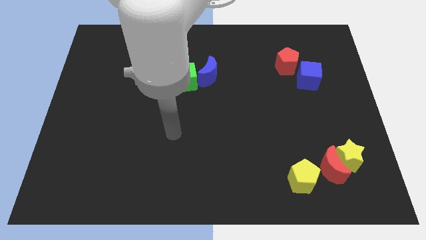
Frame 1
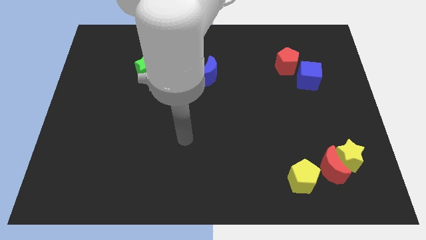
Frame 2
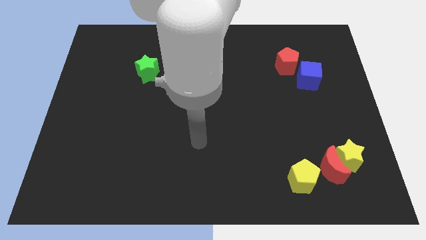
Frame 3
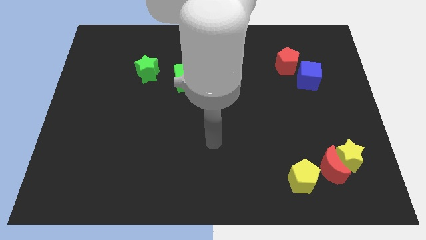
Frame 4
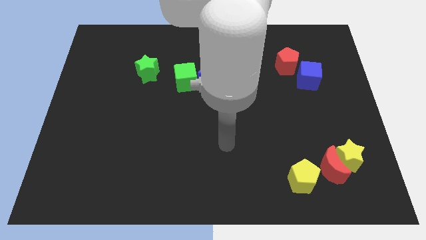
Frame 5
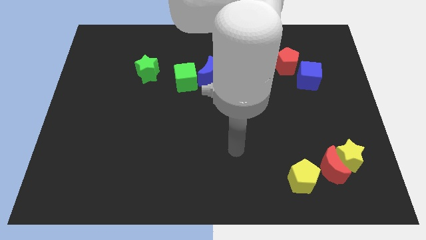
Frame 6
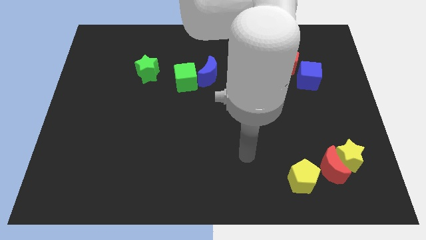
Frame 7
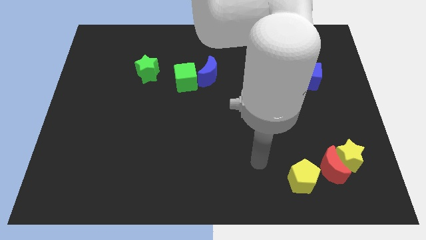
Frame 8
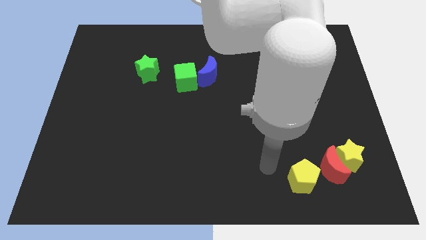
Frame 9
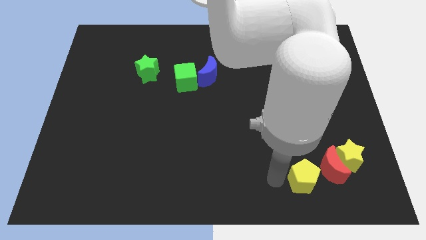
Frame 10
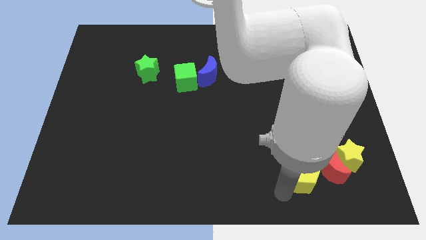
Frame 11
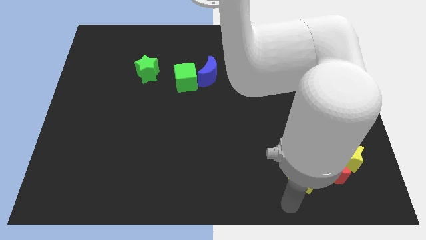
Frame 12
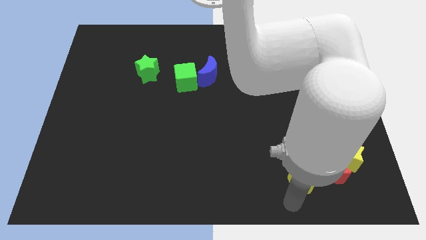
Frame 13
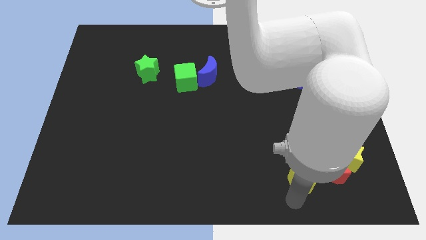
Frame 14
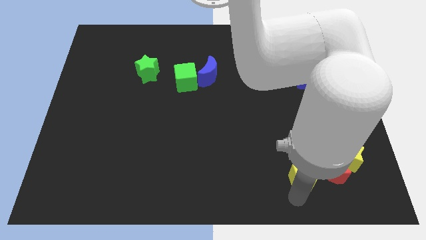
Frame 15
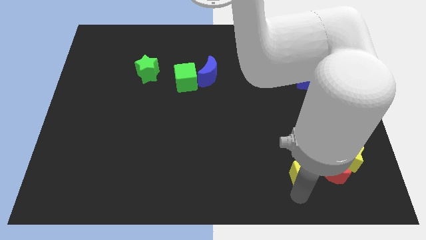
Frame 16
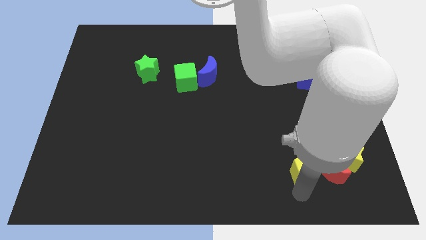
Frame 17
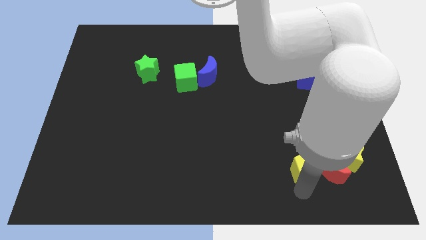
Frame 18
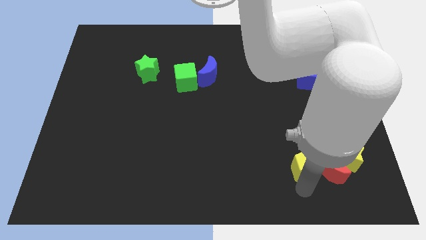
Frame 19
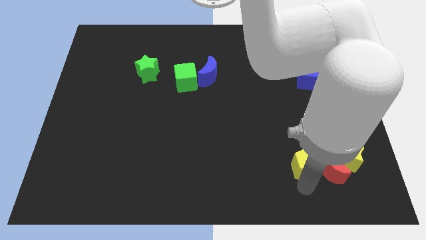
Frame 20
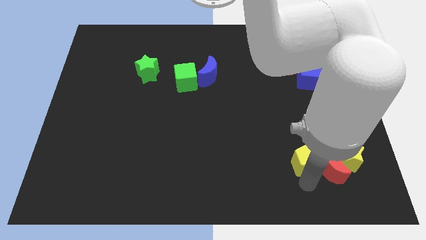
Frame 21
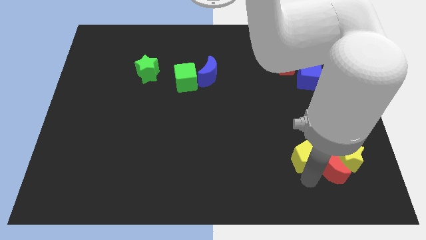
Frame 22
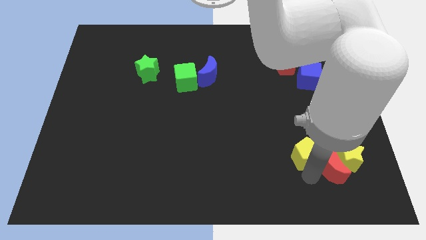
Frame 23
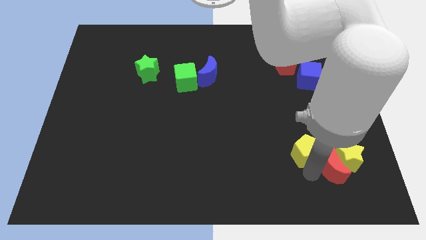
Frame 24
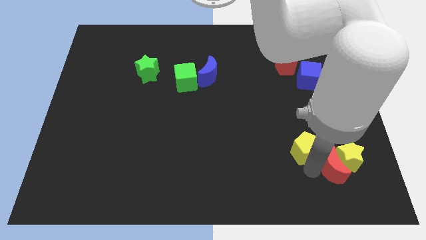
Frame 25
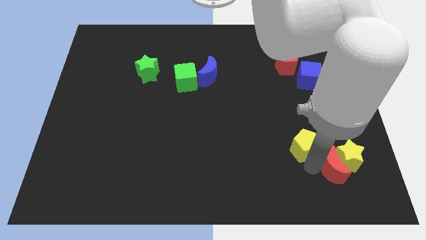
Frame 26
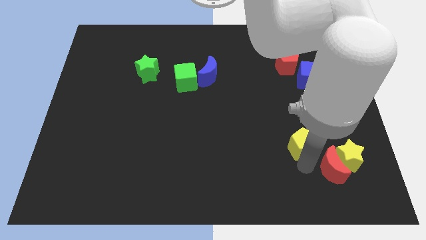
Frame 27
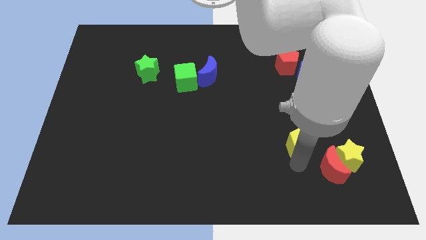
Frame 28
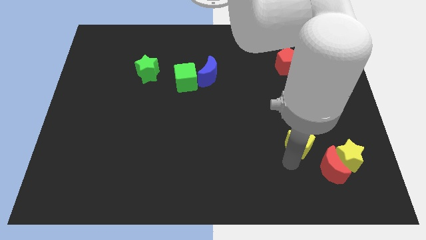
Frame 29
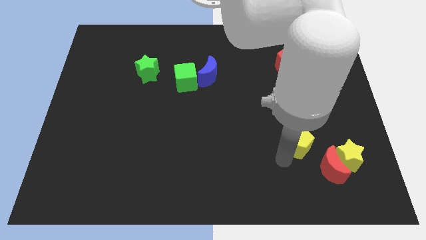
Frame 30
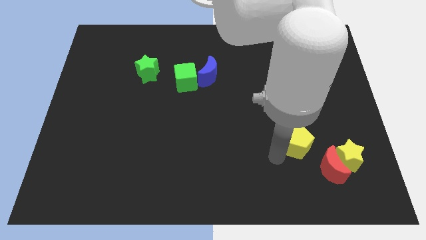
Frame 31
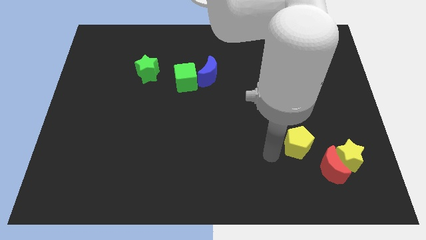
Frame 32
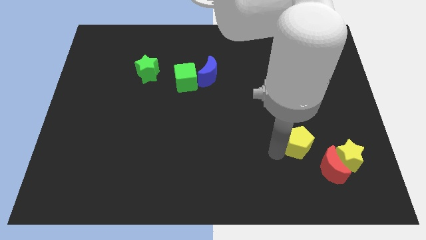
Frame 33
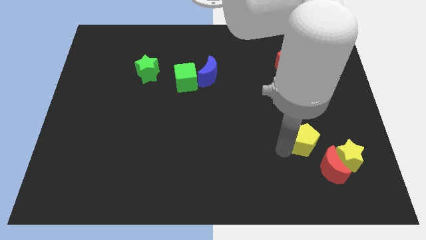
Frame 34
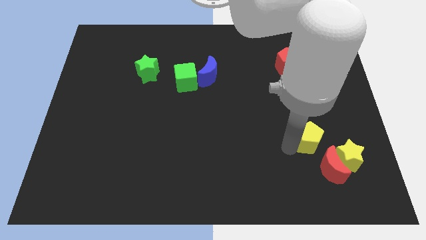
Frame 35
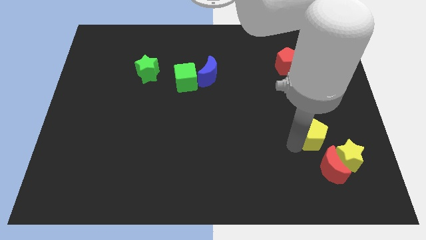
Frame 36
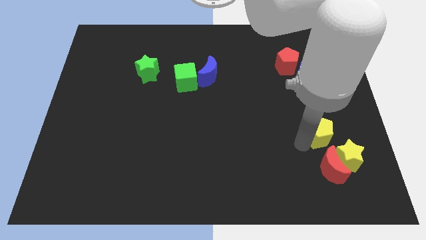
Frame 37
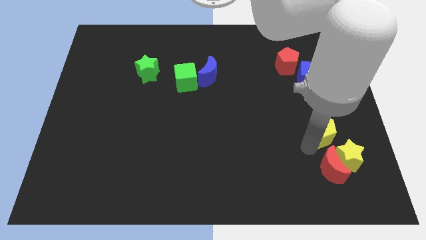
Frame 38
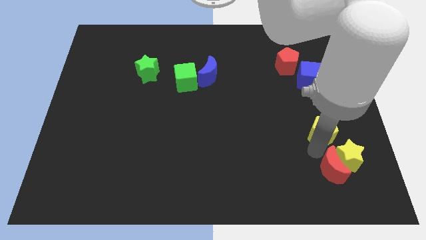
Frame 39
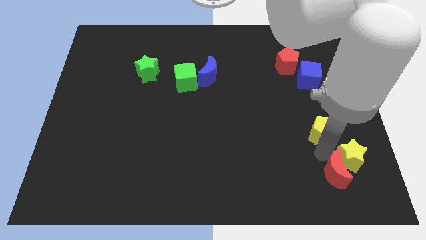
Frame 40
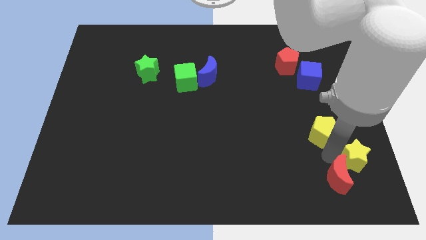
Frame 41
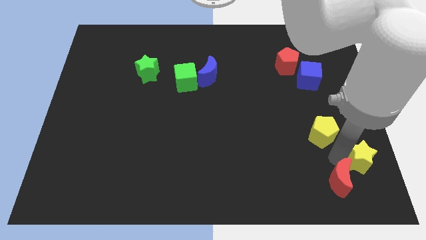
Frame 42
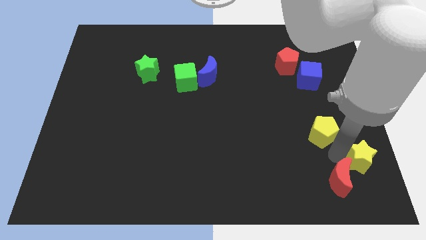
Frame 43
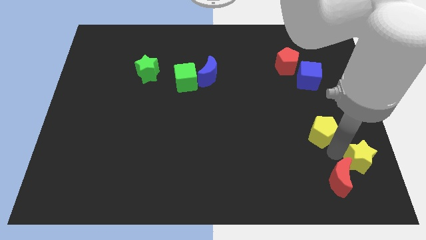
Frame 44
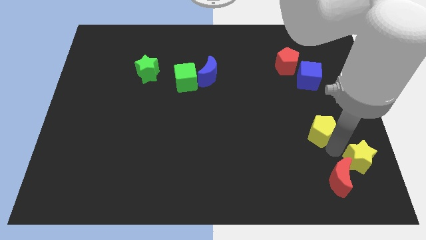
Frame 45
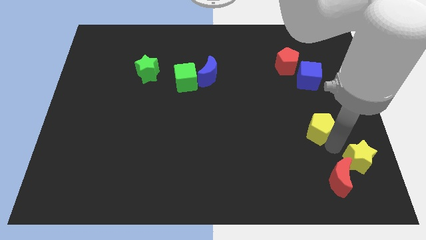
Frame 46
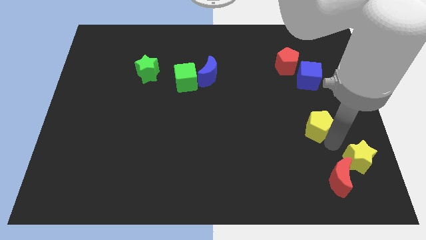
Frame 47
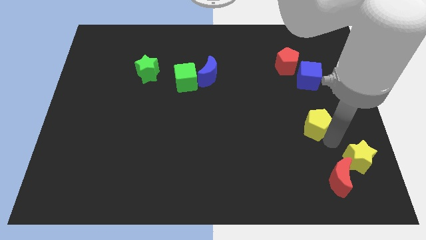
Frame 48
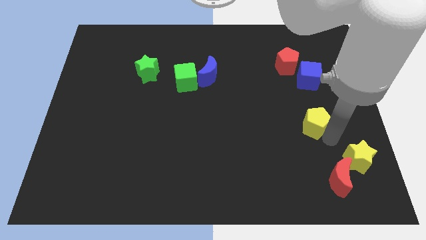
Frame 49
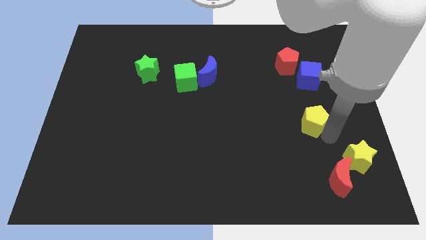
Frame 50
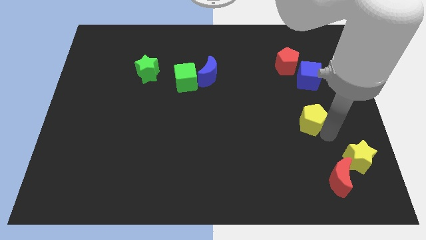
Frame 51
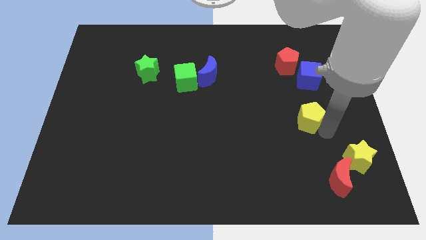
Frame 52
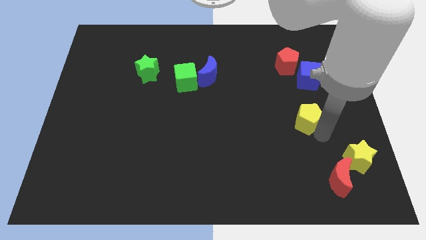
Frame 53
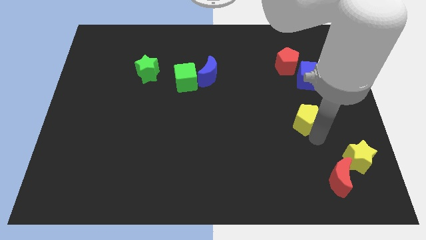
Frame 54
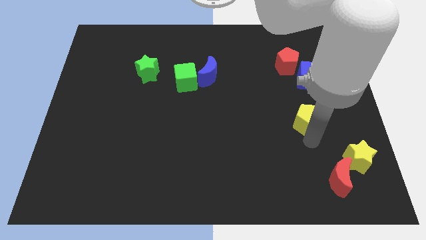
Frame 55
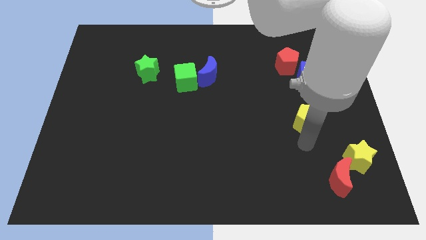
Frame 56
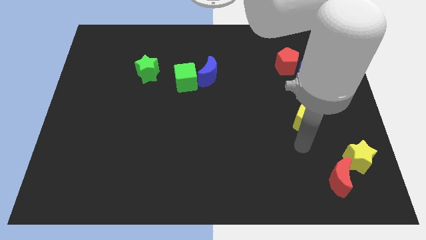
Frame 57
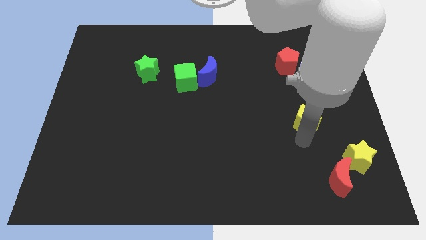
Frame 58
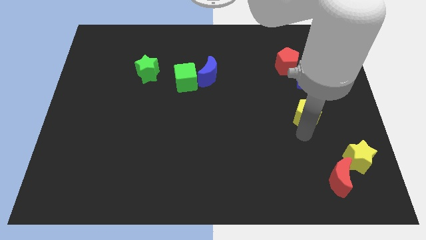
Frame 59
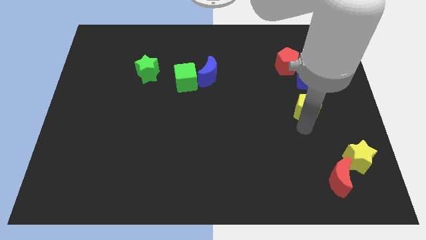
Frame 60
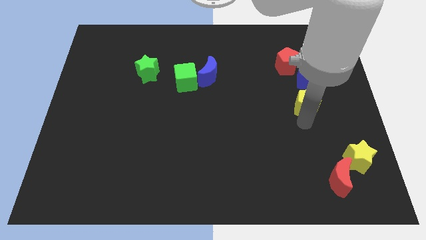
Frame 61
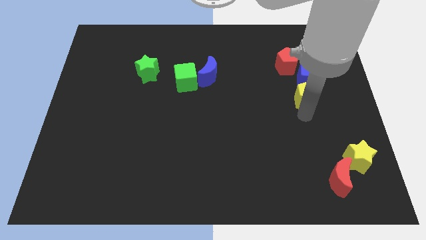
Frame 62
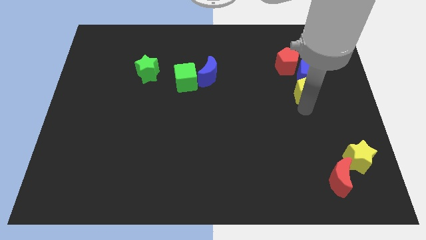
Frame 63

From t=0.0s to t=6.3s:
push the yellow pentagon to the blue cube

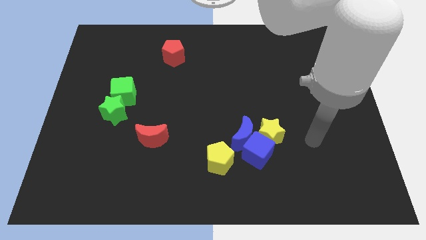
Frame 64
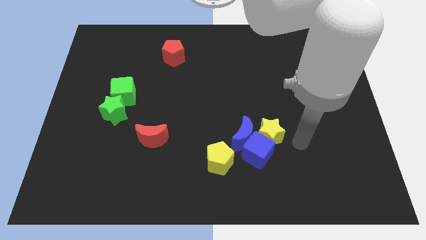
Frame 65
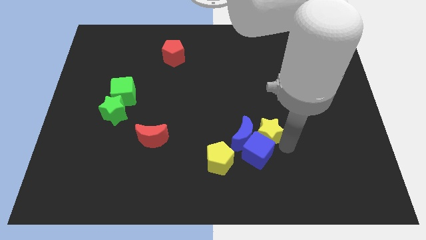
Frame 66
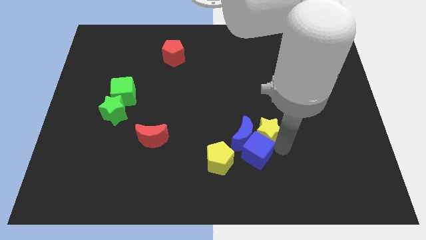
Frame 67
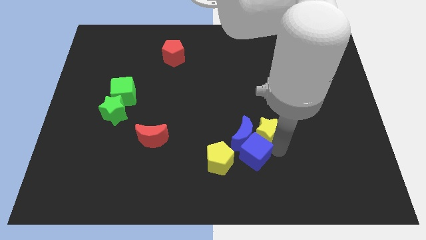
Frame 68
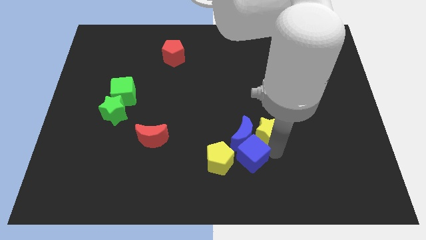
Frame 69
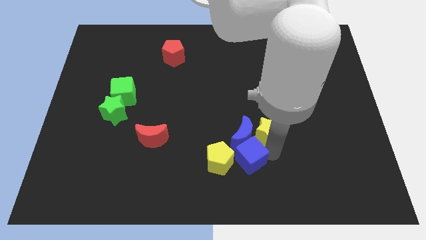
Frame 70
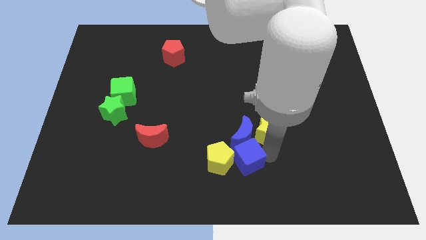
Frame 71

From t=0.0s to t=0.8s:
push the blue cube towards the yellow pentagon
